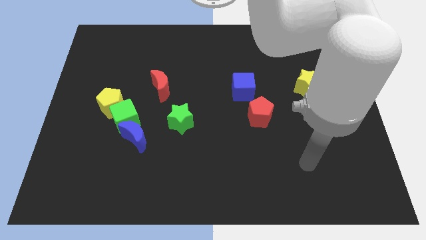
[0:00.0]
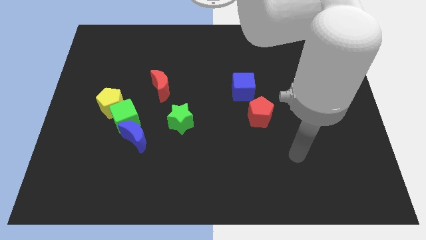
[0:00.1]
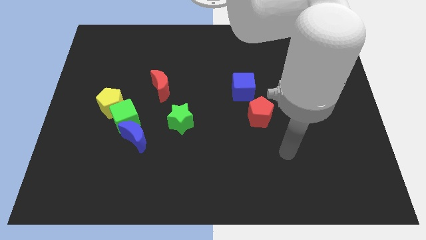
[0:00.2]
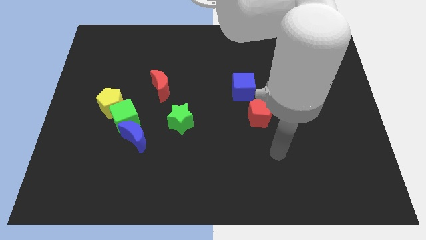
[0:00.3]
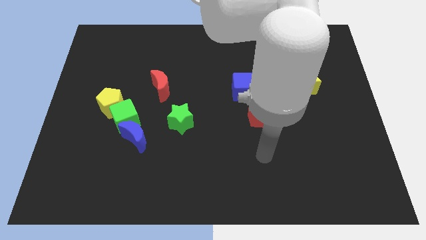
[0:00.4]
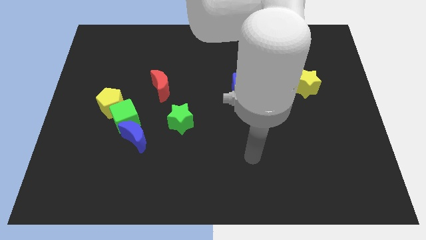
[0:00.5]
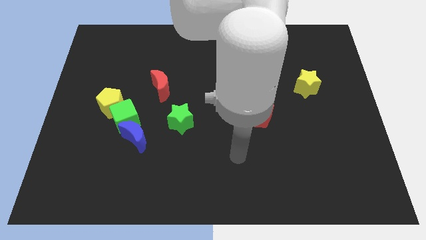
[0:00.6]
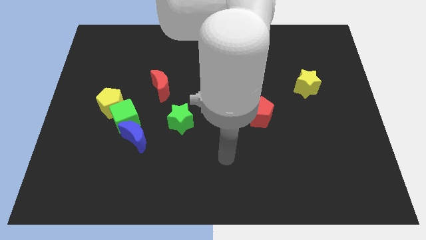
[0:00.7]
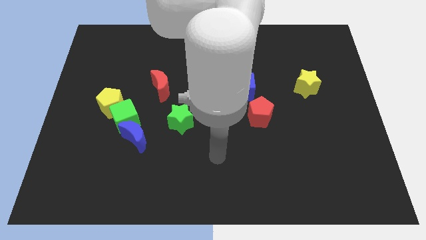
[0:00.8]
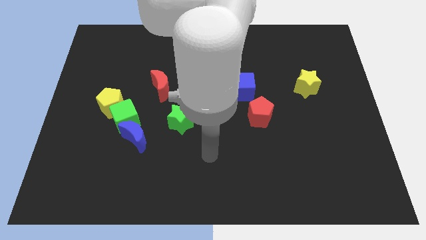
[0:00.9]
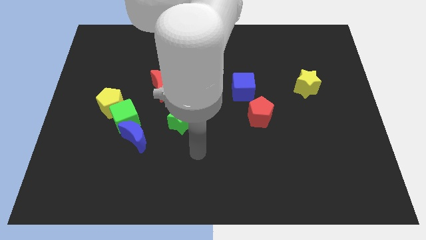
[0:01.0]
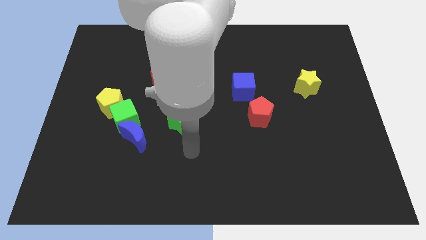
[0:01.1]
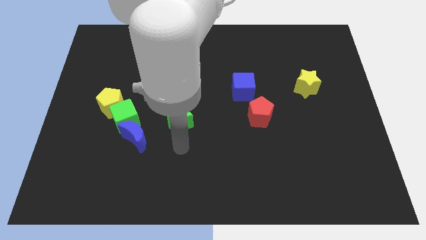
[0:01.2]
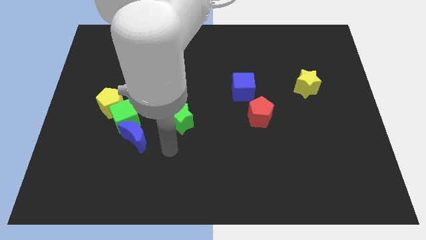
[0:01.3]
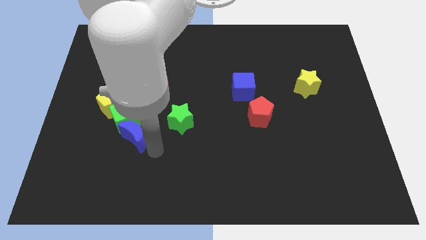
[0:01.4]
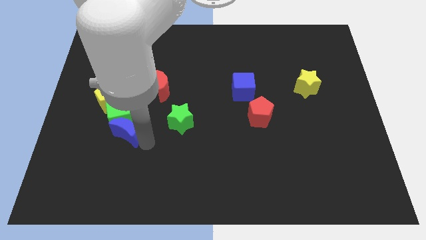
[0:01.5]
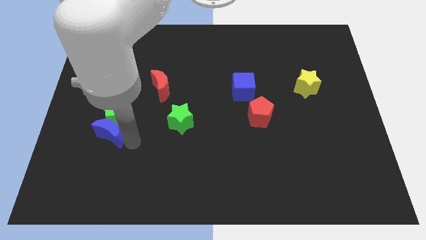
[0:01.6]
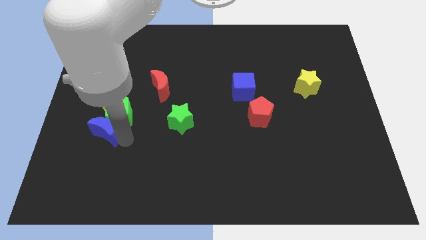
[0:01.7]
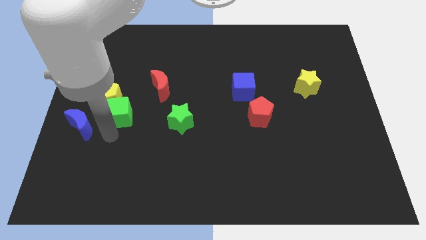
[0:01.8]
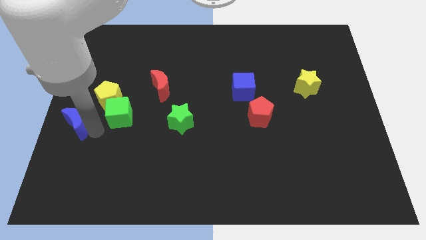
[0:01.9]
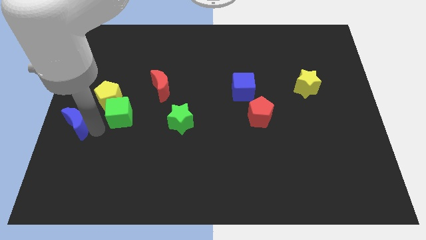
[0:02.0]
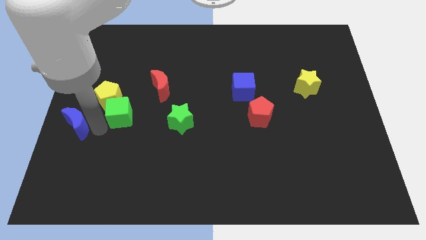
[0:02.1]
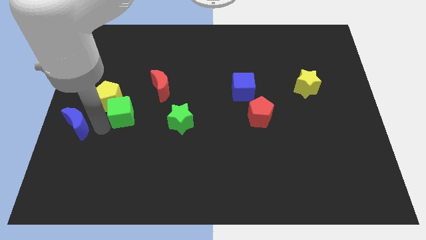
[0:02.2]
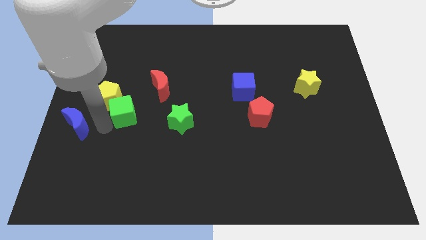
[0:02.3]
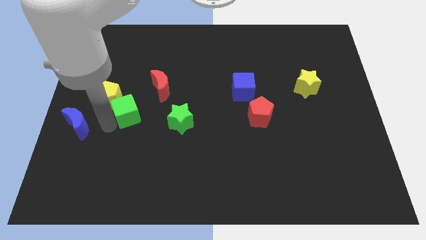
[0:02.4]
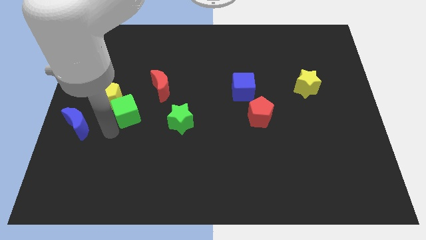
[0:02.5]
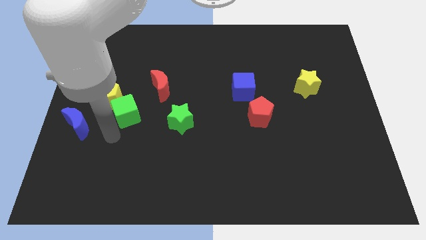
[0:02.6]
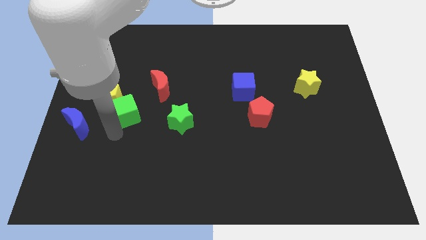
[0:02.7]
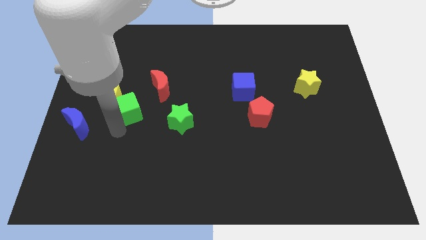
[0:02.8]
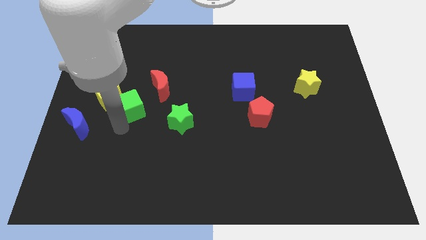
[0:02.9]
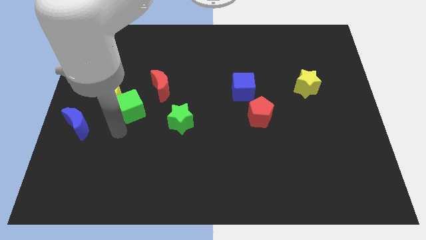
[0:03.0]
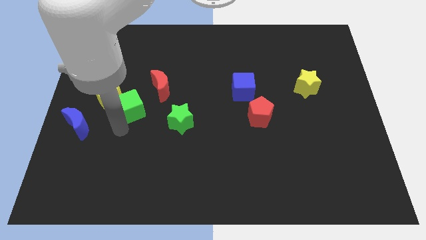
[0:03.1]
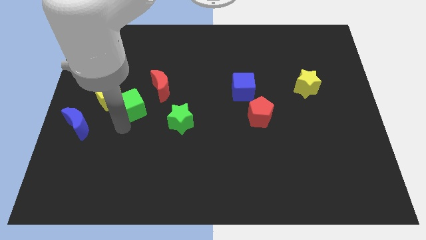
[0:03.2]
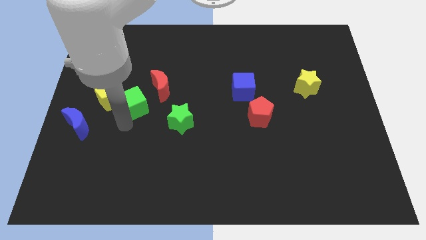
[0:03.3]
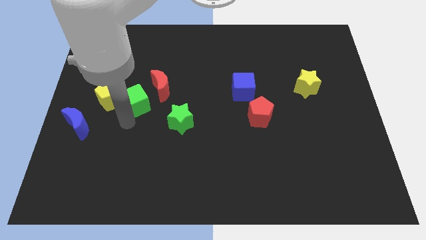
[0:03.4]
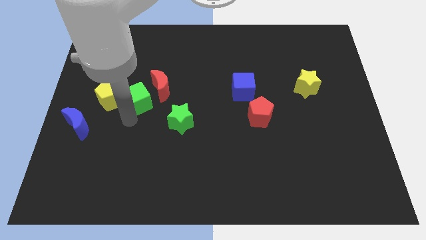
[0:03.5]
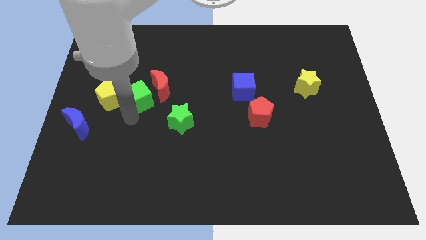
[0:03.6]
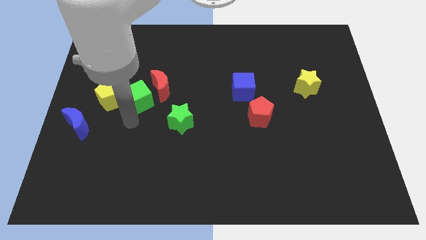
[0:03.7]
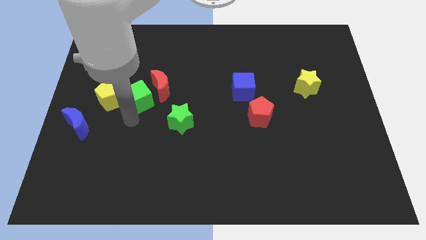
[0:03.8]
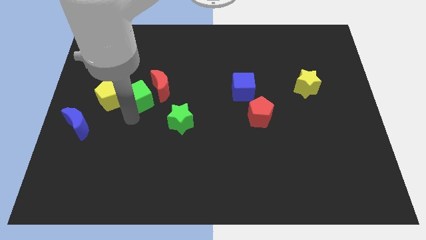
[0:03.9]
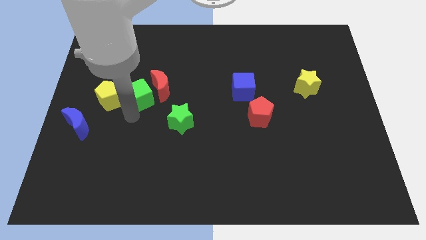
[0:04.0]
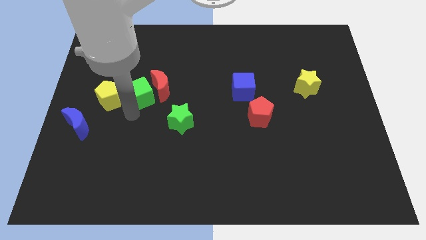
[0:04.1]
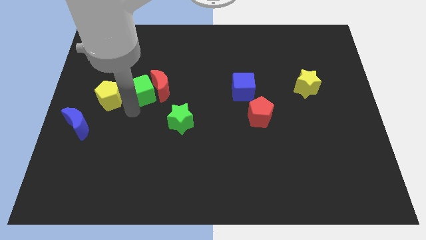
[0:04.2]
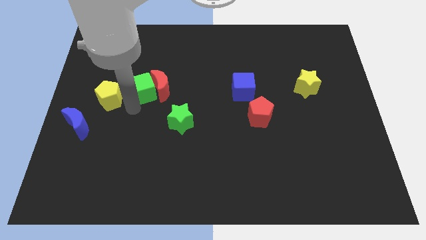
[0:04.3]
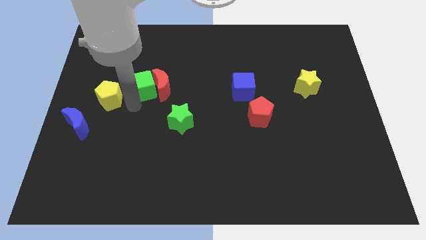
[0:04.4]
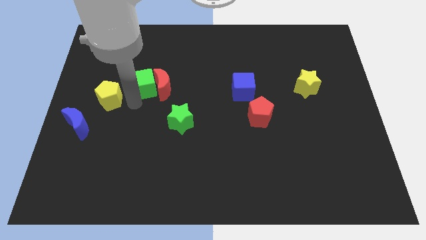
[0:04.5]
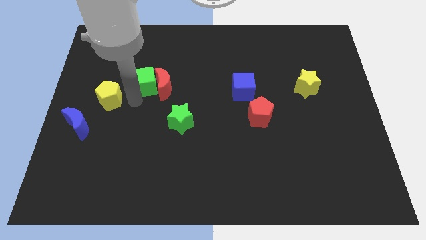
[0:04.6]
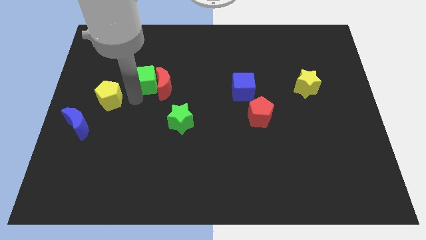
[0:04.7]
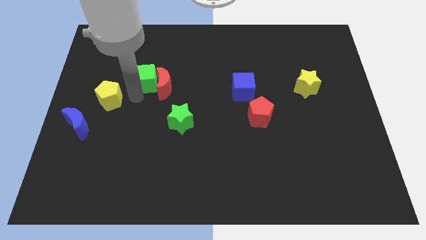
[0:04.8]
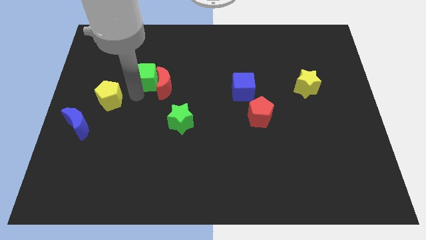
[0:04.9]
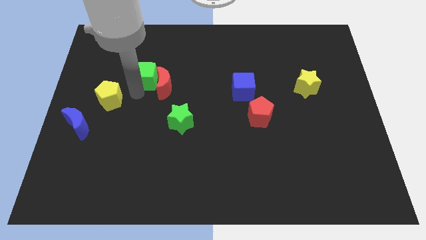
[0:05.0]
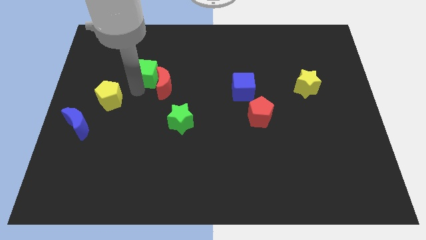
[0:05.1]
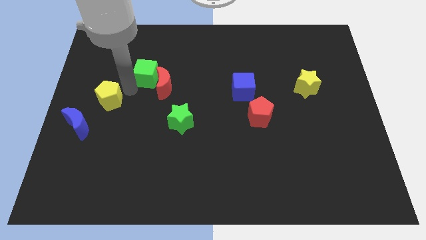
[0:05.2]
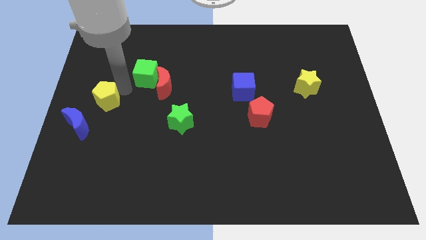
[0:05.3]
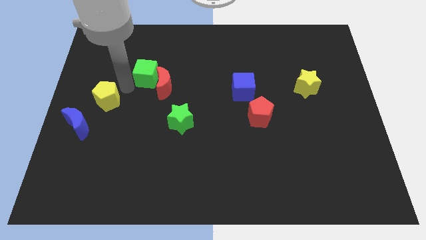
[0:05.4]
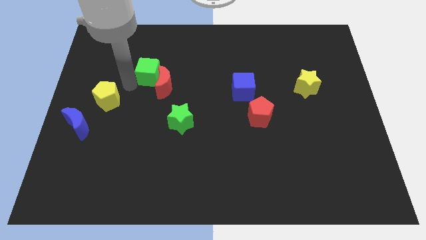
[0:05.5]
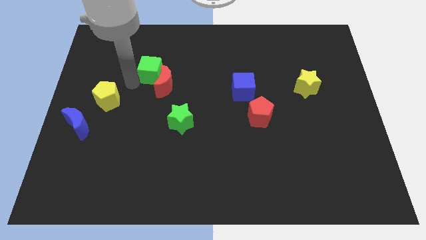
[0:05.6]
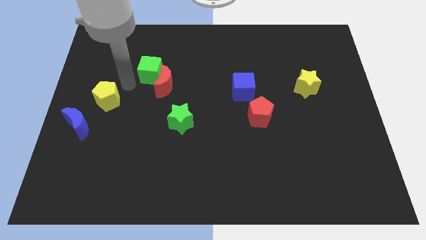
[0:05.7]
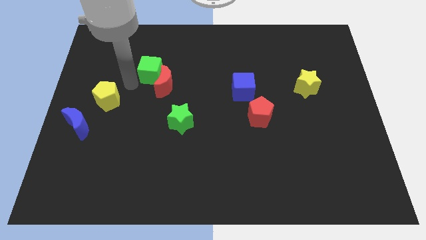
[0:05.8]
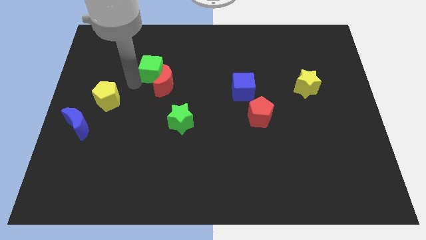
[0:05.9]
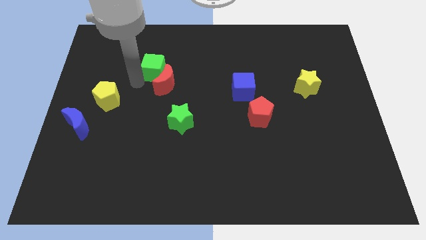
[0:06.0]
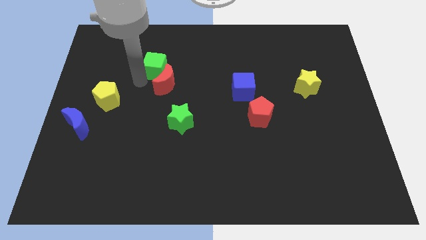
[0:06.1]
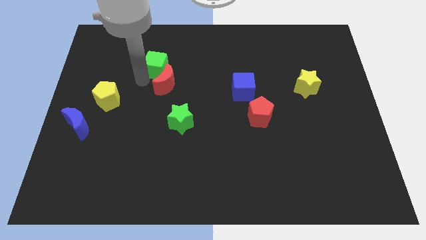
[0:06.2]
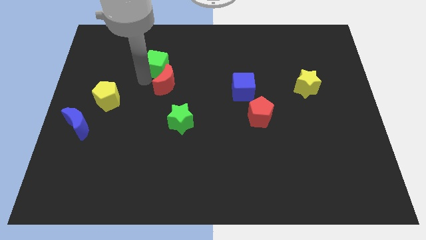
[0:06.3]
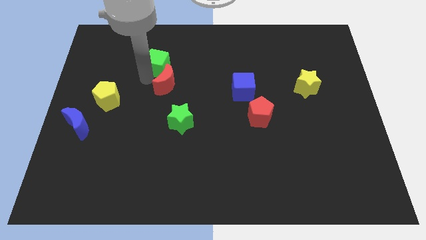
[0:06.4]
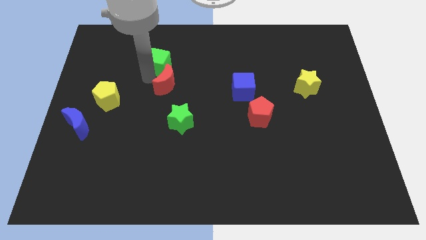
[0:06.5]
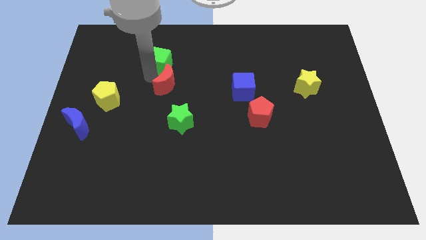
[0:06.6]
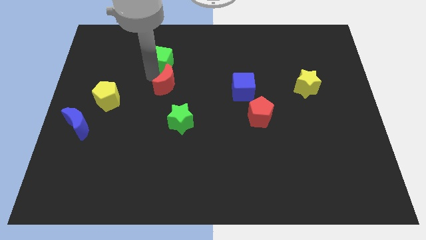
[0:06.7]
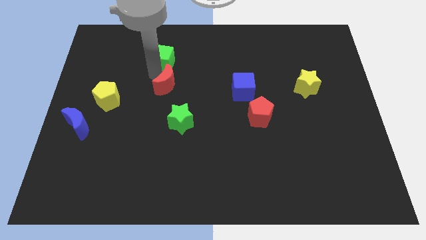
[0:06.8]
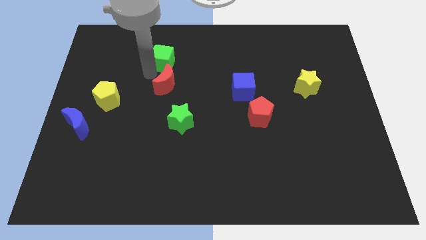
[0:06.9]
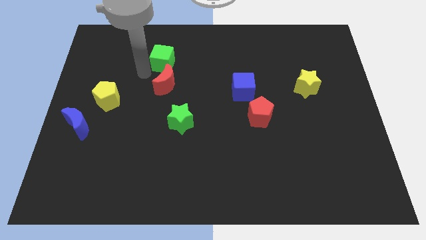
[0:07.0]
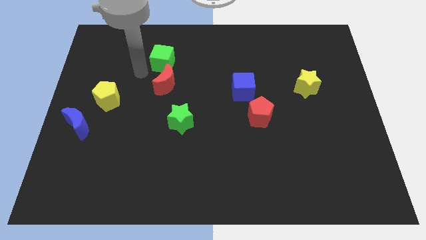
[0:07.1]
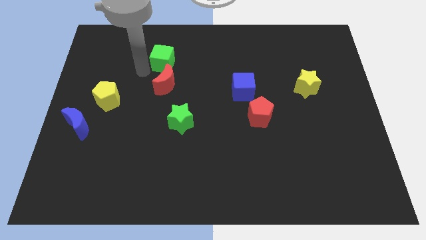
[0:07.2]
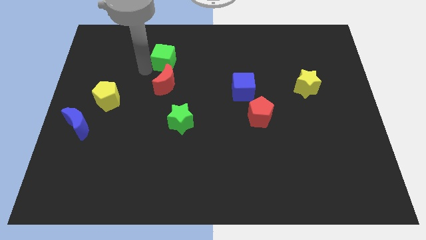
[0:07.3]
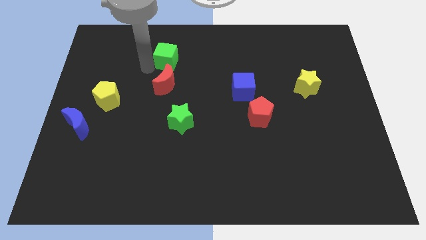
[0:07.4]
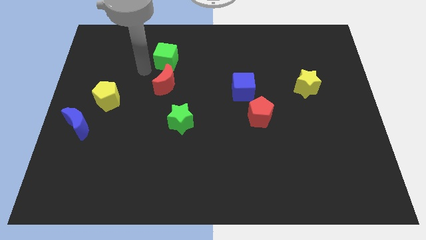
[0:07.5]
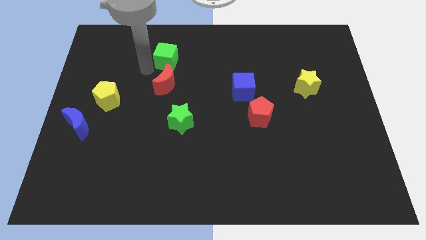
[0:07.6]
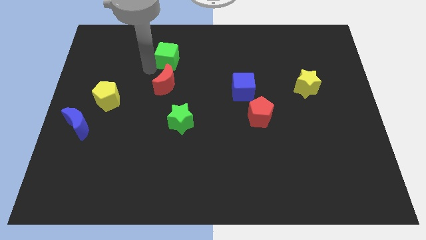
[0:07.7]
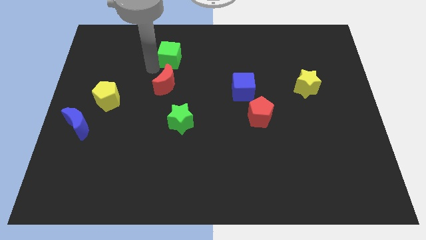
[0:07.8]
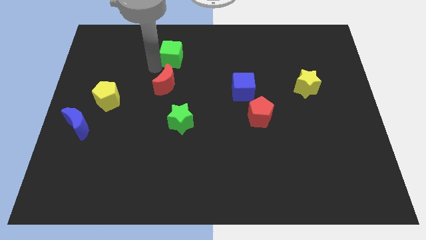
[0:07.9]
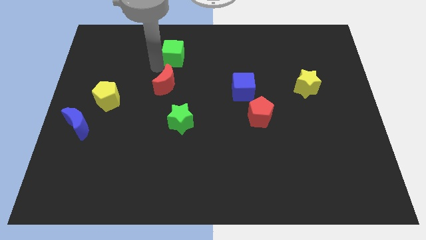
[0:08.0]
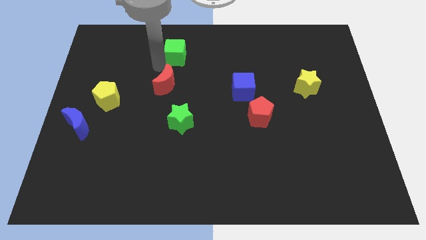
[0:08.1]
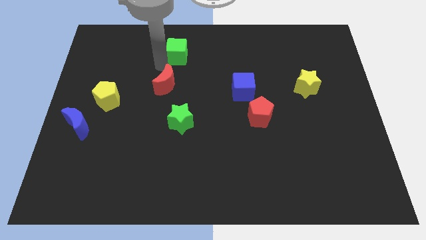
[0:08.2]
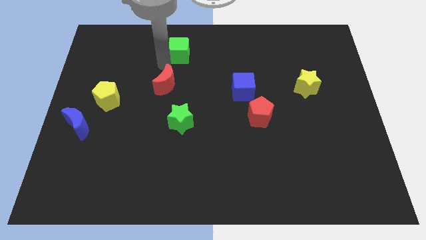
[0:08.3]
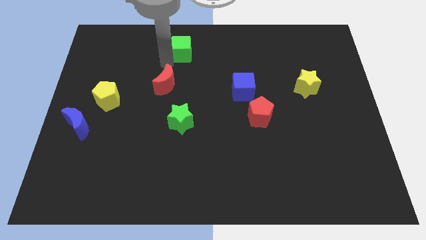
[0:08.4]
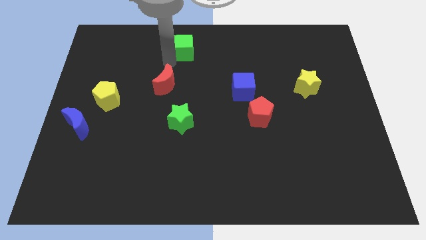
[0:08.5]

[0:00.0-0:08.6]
slide the green cube to the top side
